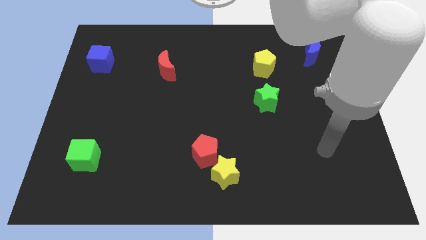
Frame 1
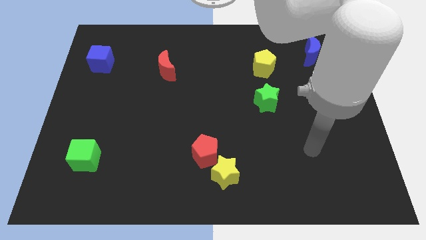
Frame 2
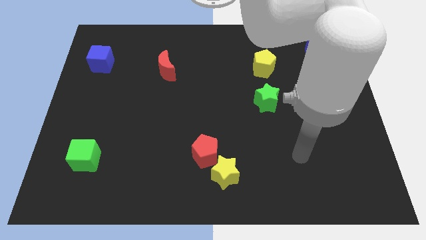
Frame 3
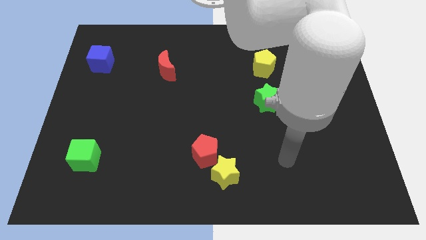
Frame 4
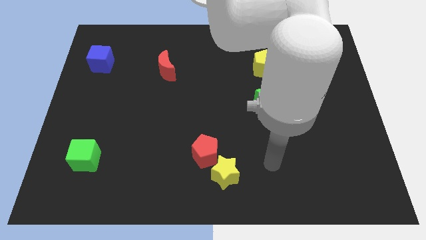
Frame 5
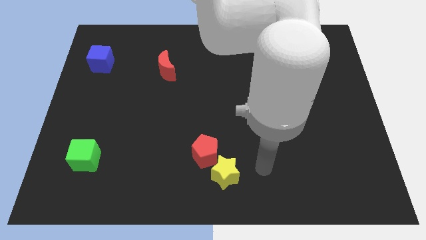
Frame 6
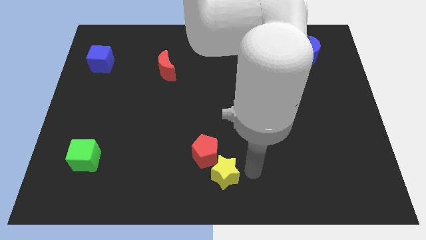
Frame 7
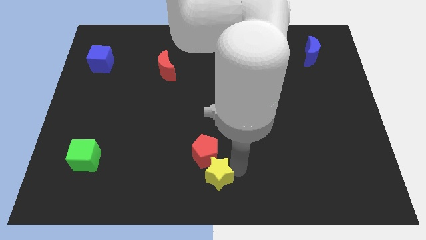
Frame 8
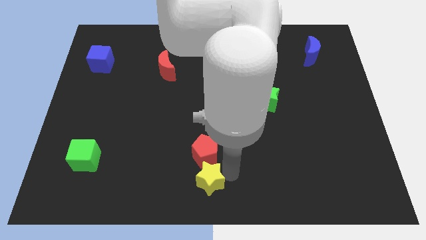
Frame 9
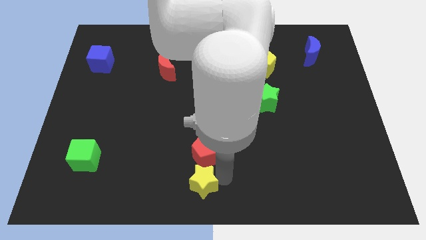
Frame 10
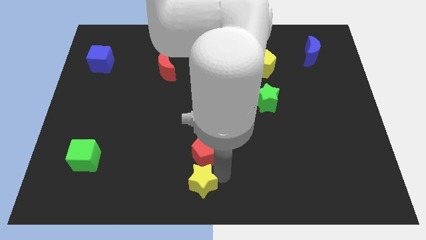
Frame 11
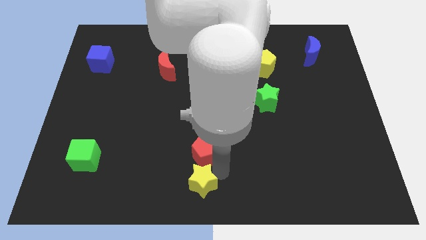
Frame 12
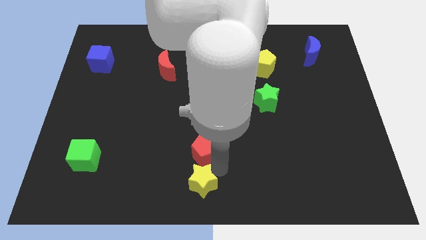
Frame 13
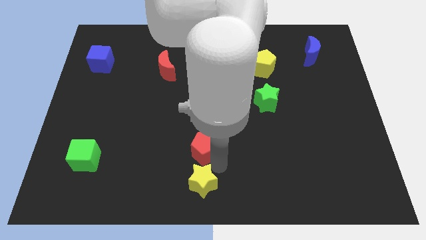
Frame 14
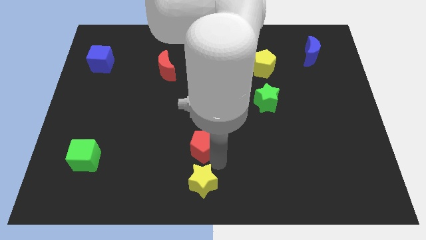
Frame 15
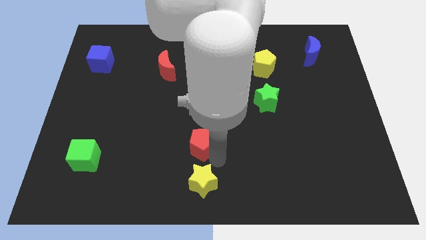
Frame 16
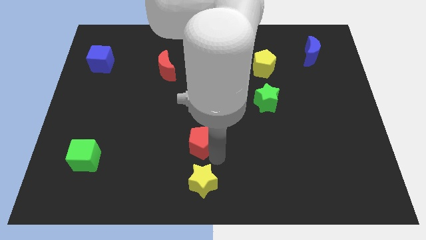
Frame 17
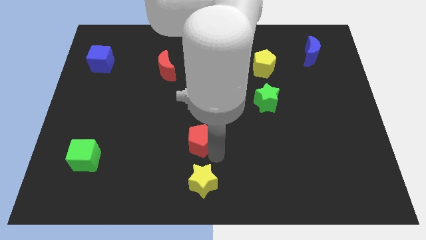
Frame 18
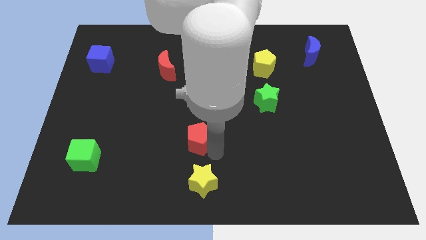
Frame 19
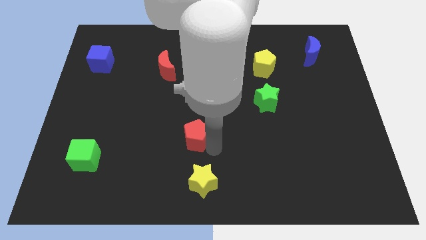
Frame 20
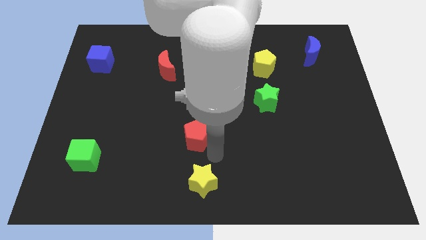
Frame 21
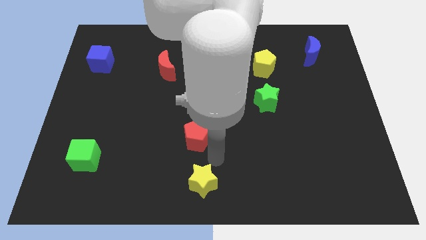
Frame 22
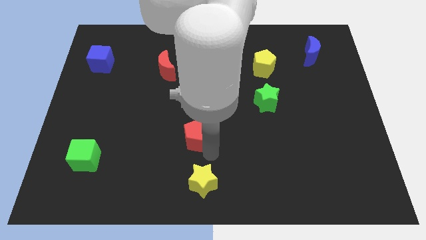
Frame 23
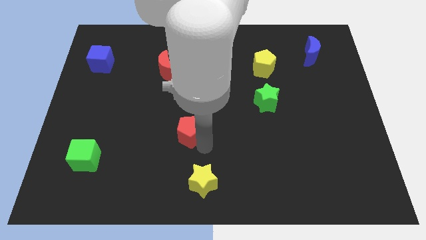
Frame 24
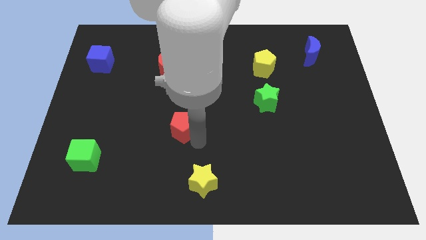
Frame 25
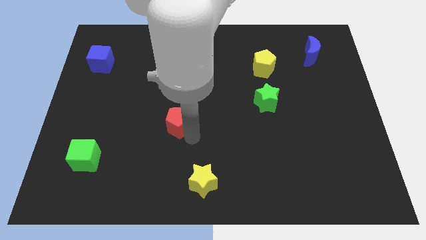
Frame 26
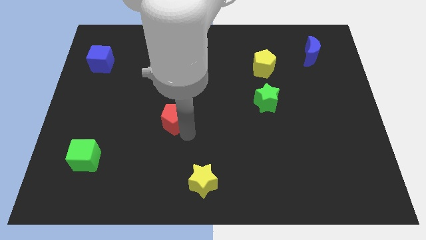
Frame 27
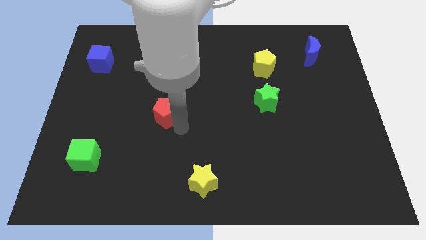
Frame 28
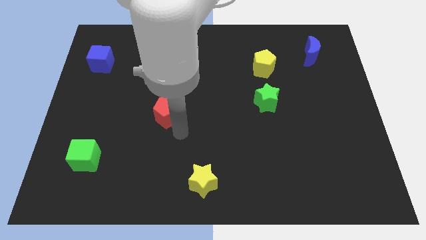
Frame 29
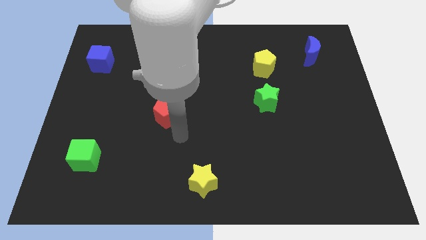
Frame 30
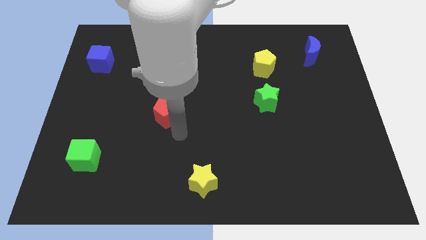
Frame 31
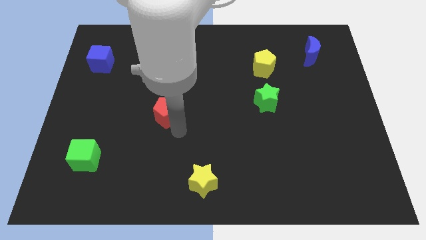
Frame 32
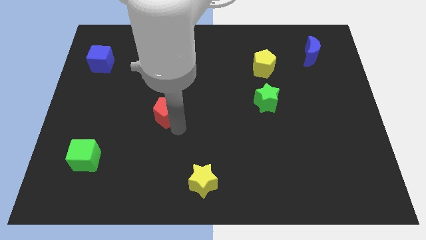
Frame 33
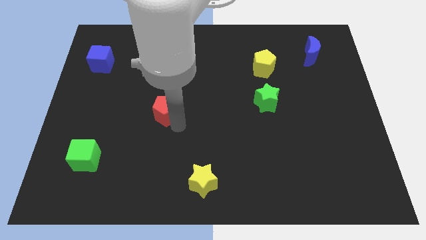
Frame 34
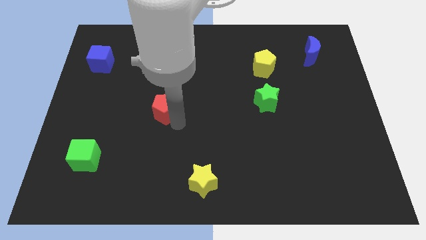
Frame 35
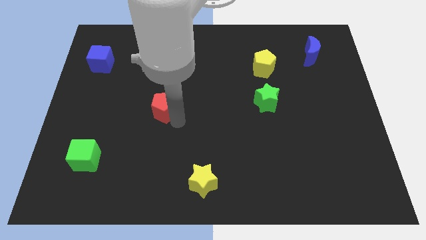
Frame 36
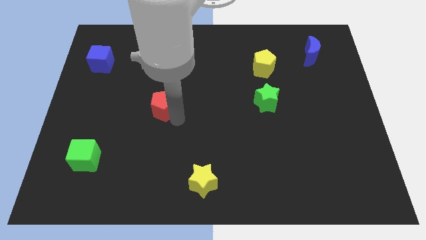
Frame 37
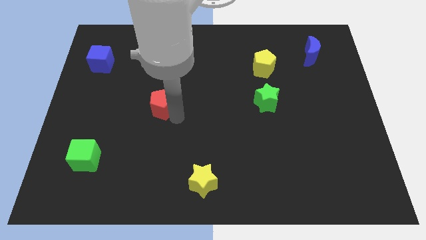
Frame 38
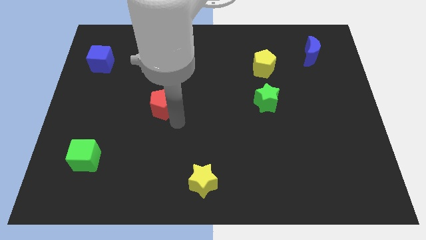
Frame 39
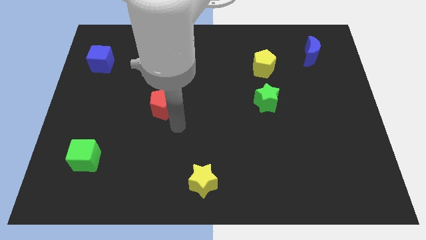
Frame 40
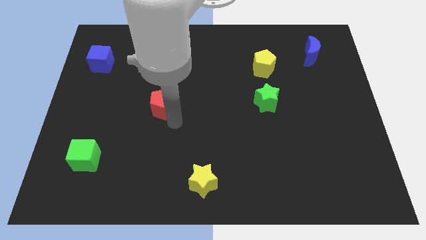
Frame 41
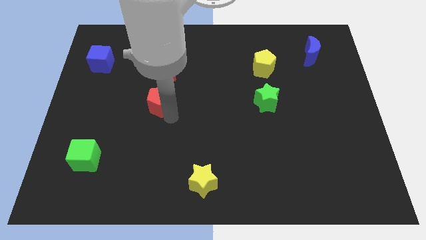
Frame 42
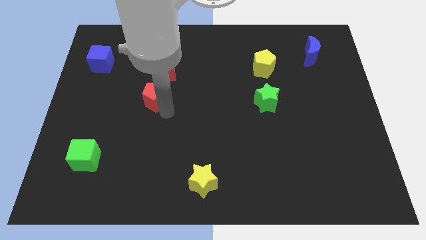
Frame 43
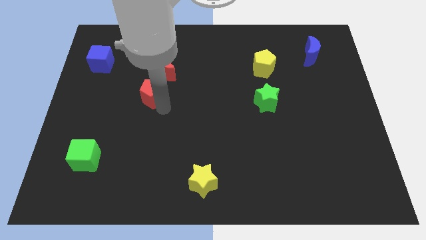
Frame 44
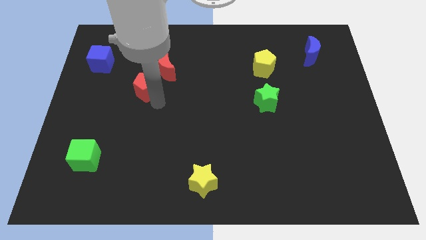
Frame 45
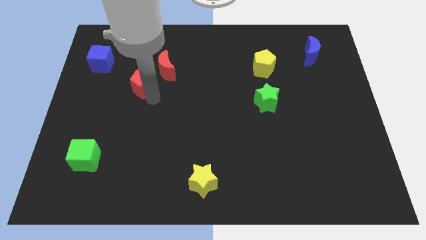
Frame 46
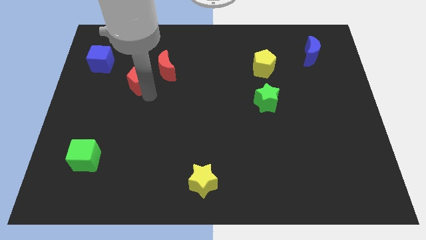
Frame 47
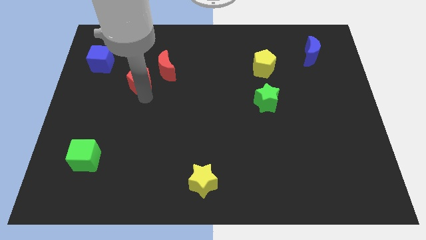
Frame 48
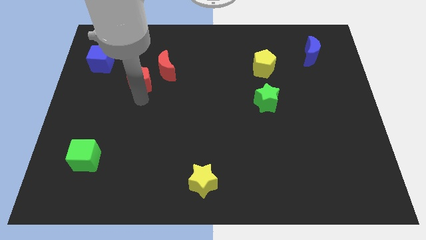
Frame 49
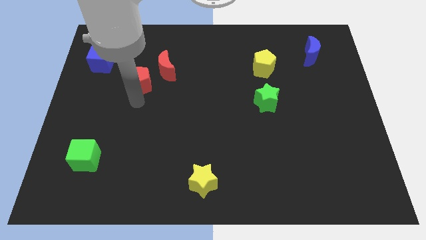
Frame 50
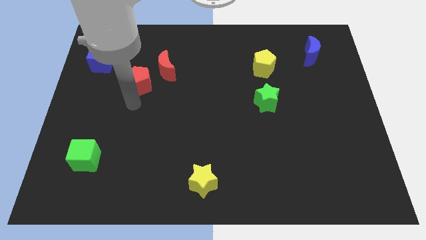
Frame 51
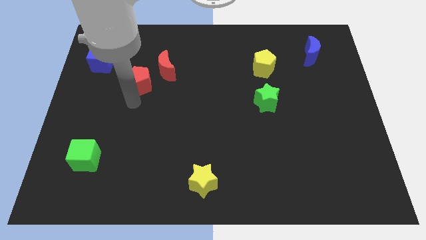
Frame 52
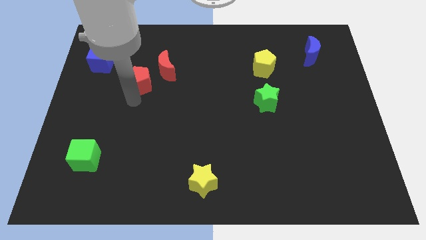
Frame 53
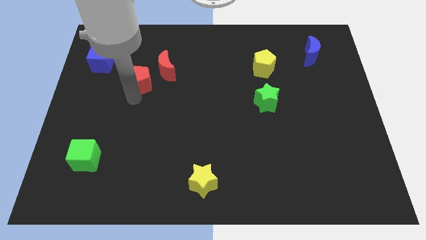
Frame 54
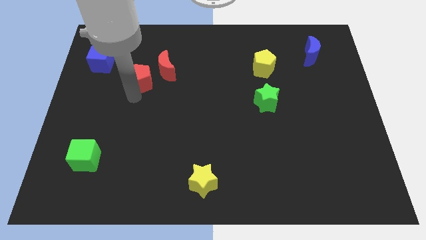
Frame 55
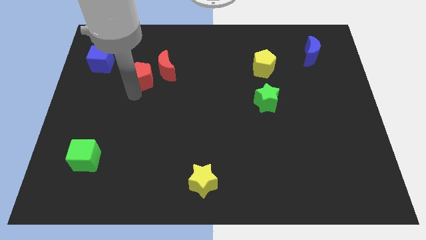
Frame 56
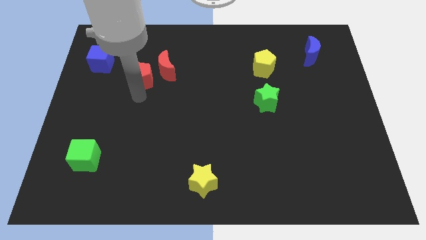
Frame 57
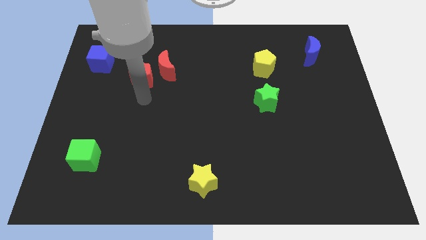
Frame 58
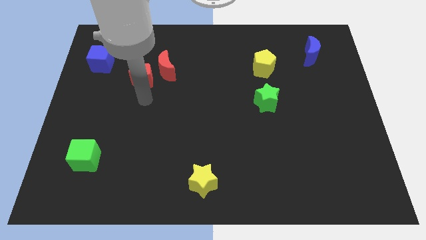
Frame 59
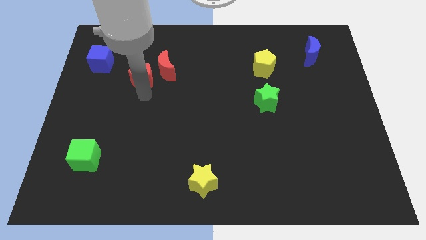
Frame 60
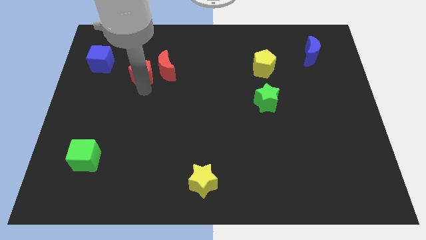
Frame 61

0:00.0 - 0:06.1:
move the red pentagon right of the blue cube

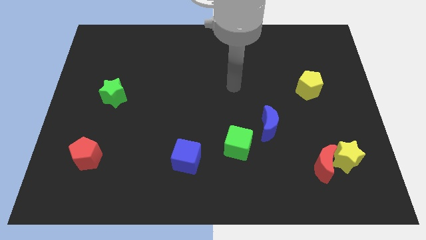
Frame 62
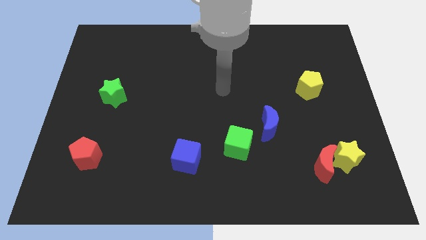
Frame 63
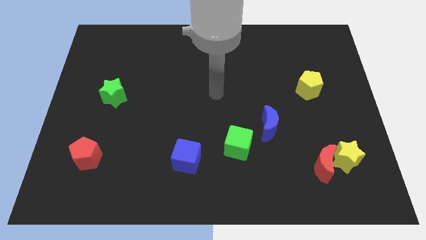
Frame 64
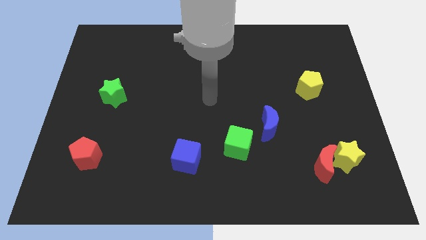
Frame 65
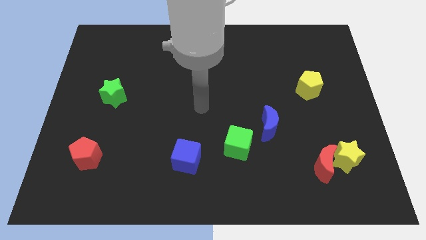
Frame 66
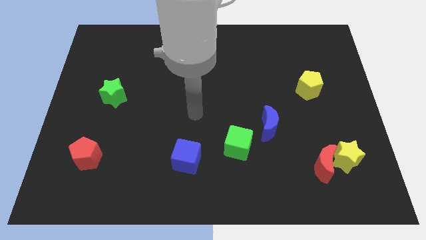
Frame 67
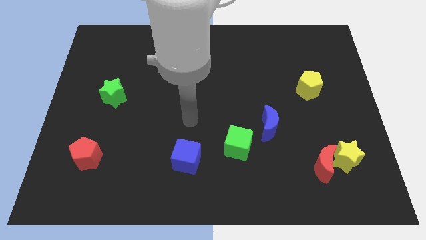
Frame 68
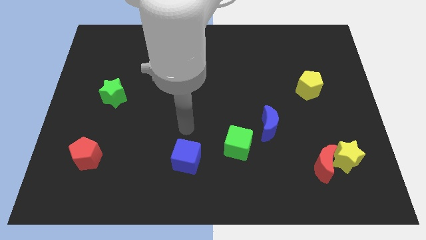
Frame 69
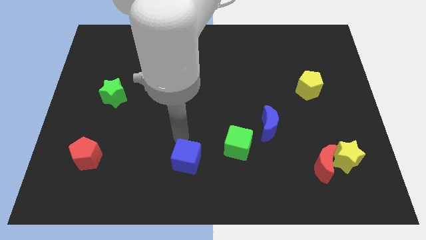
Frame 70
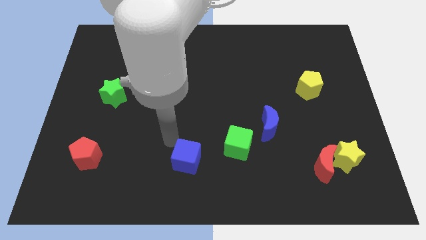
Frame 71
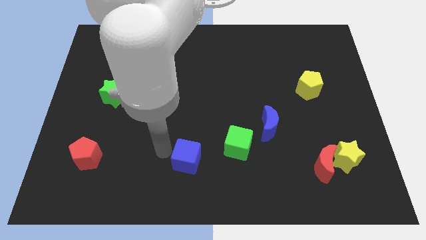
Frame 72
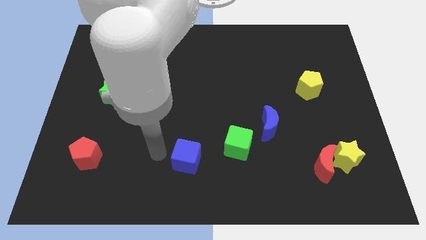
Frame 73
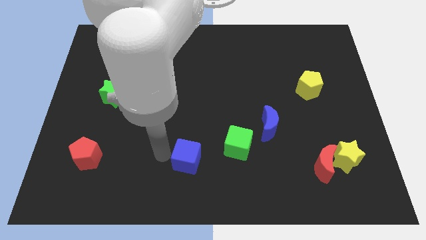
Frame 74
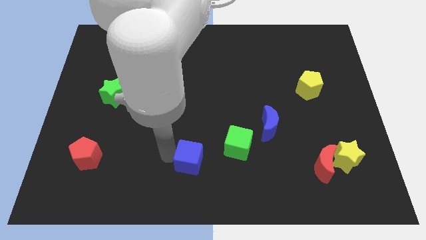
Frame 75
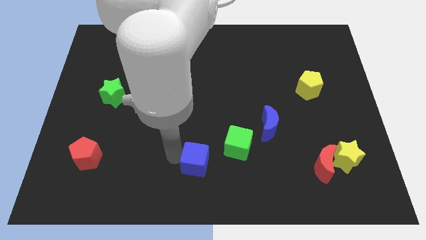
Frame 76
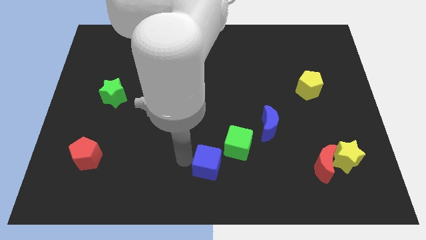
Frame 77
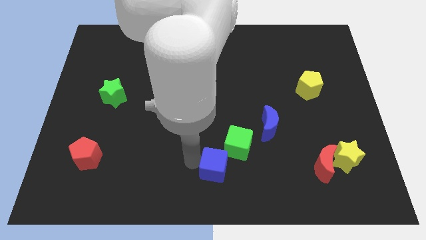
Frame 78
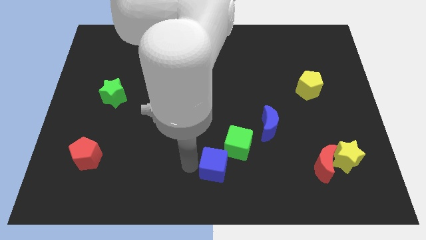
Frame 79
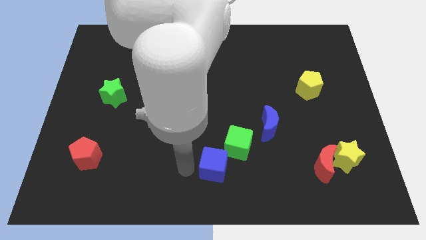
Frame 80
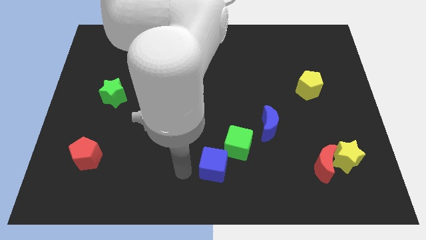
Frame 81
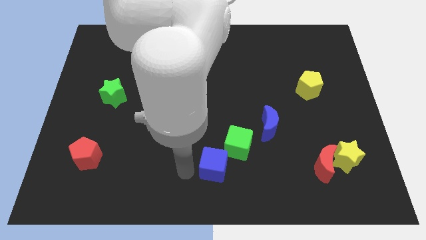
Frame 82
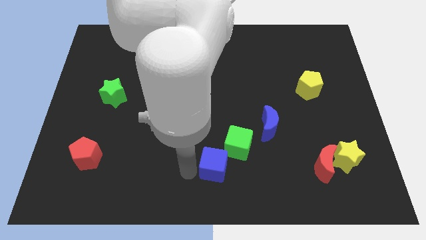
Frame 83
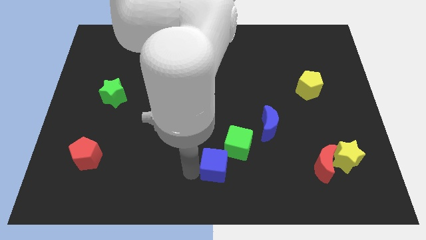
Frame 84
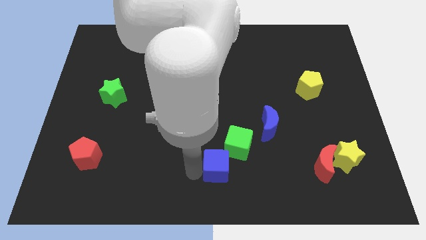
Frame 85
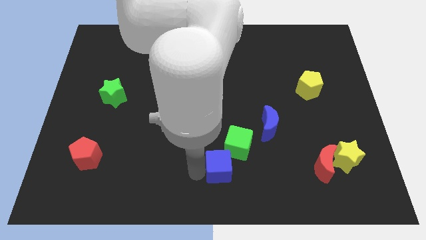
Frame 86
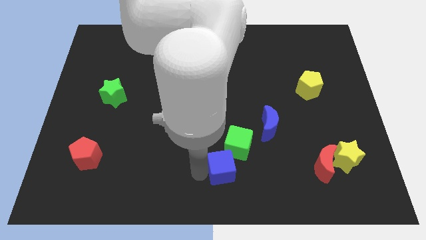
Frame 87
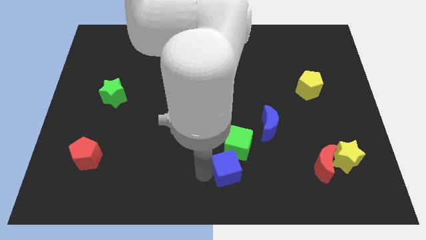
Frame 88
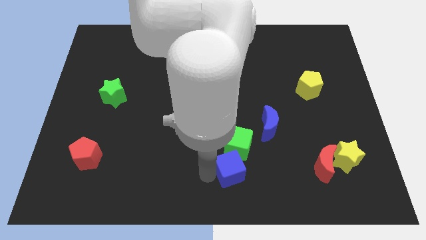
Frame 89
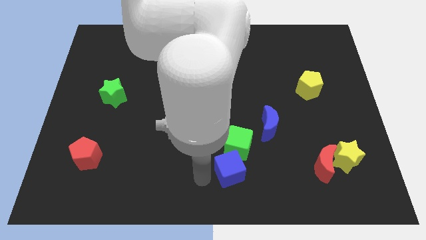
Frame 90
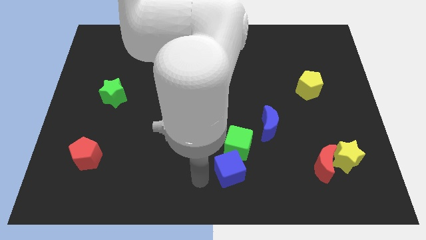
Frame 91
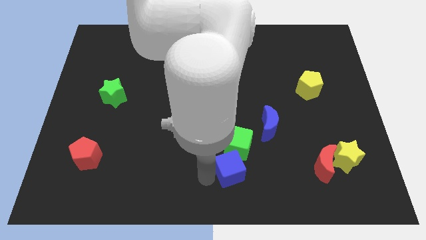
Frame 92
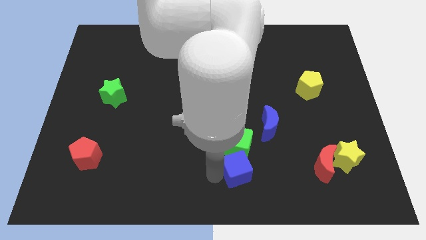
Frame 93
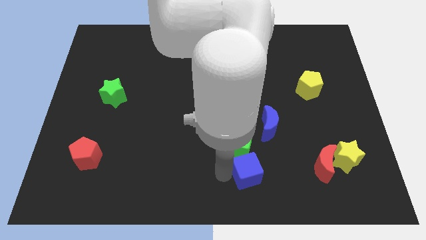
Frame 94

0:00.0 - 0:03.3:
slide the blue cube to the left side of the red moon
